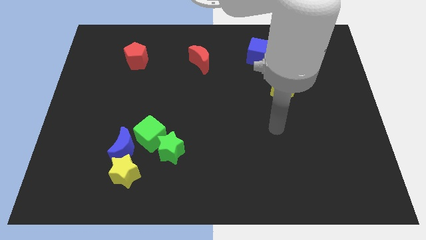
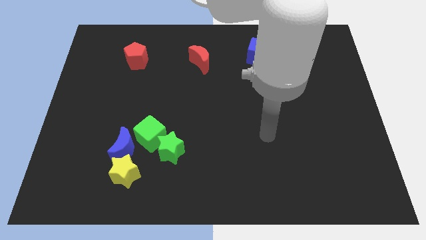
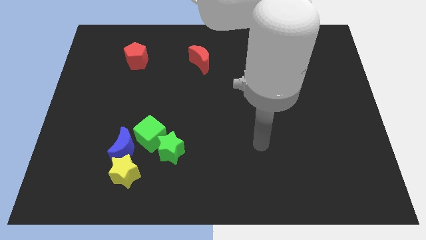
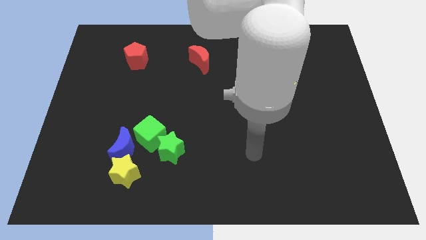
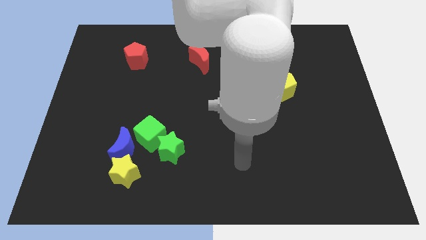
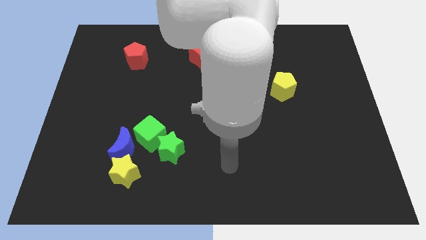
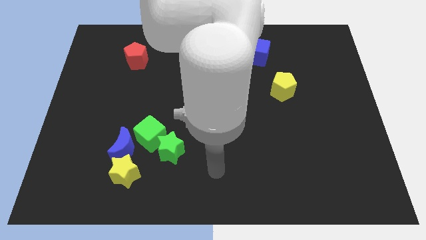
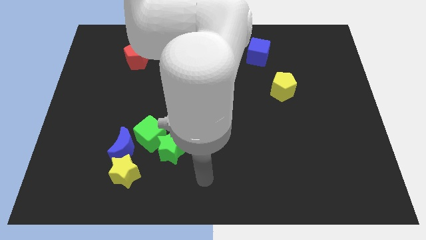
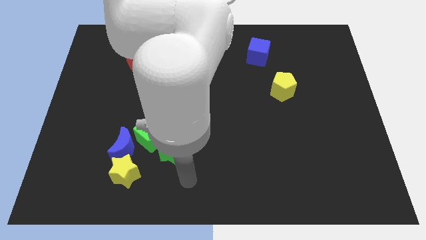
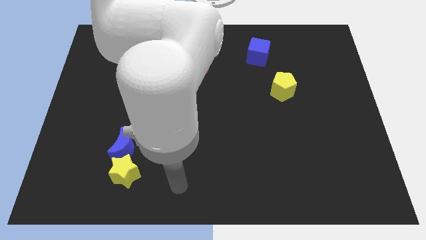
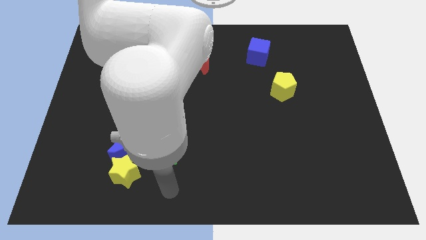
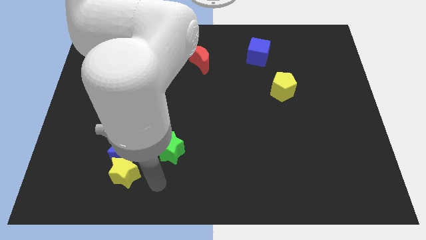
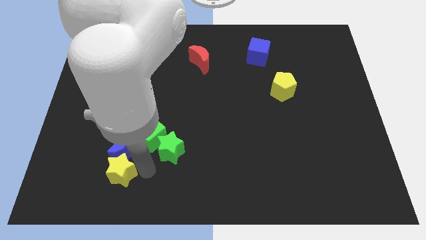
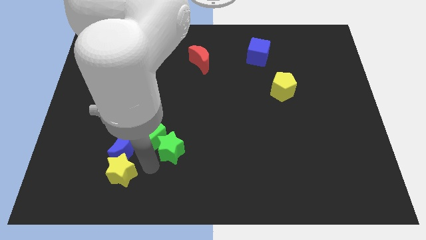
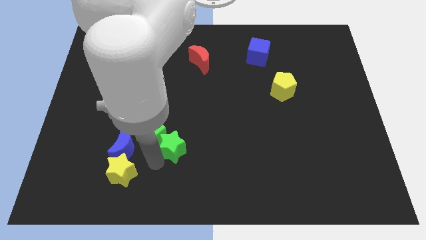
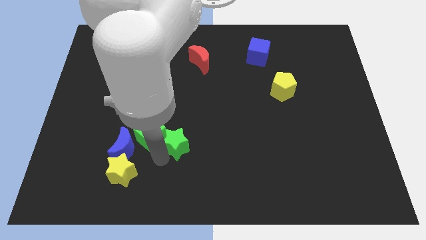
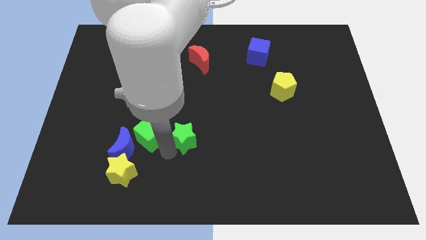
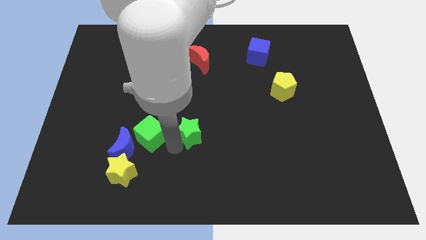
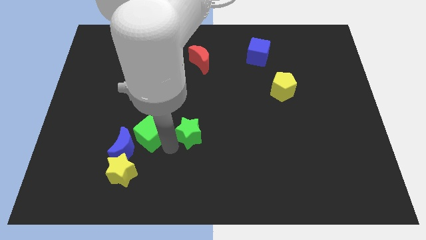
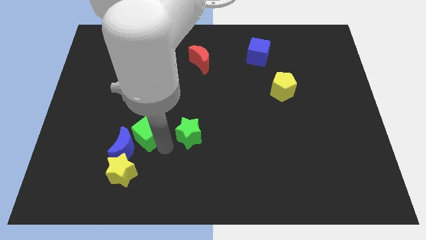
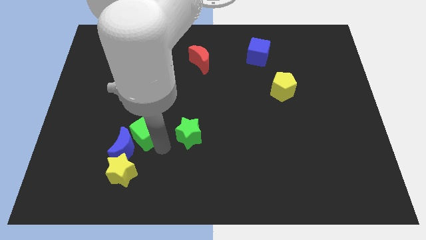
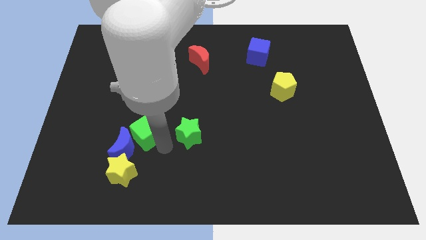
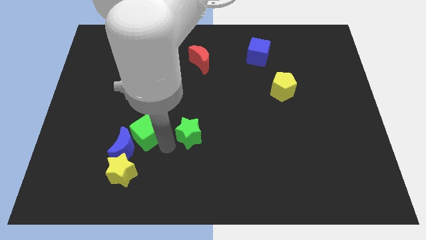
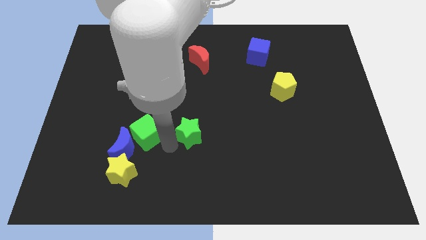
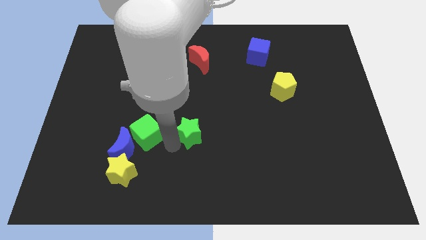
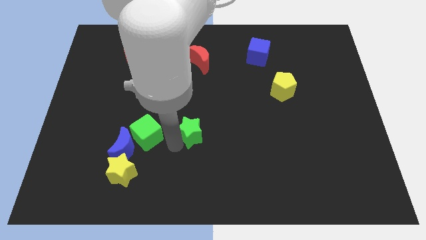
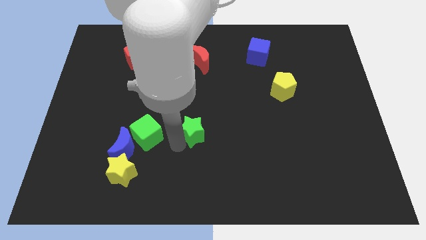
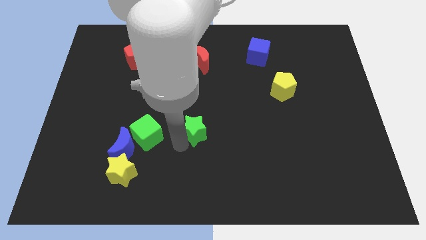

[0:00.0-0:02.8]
move the green star up and right diagonally a bit

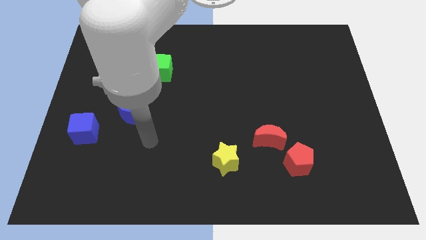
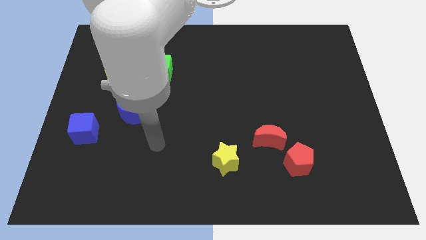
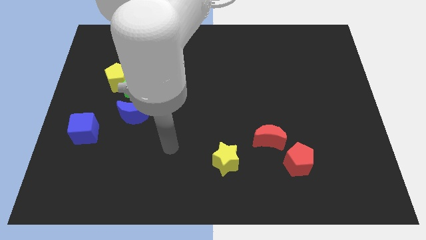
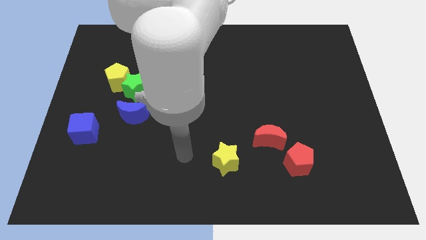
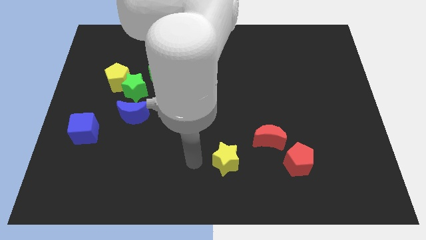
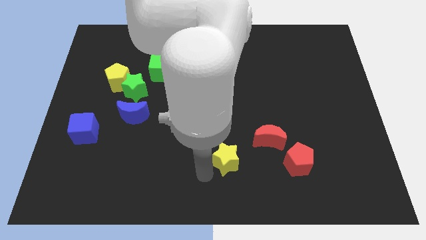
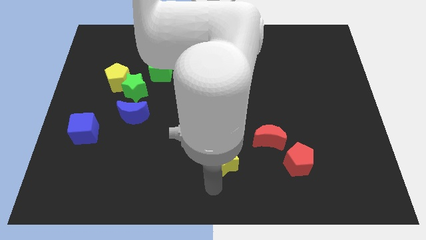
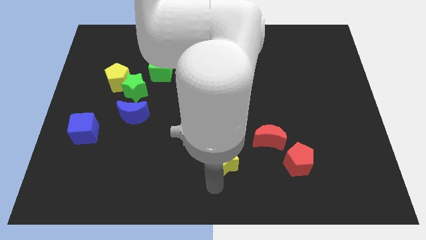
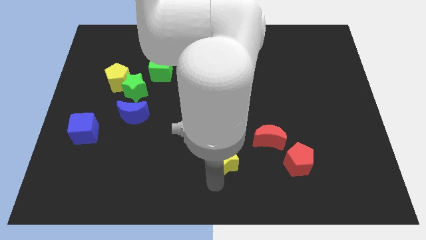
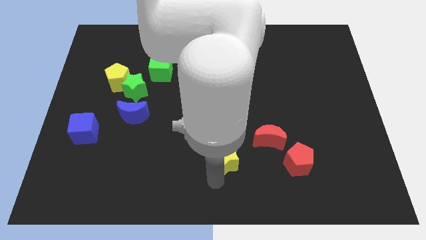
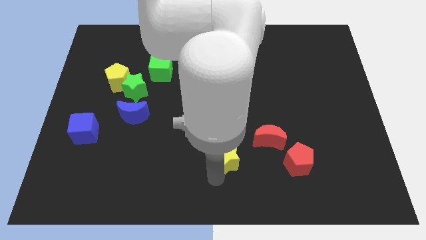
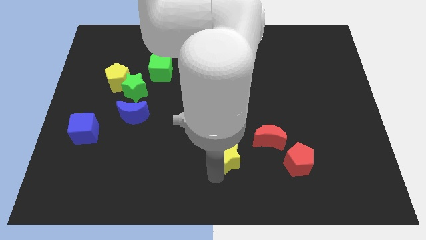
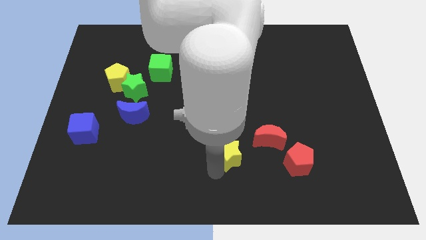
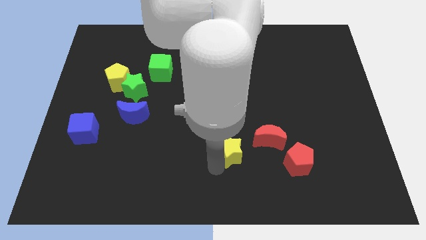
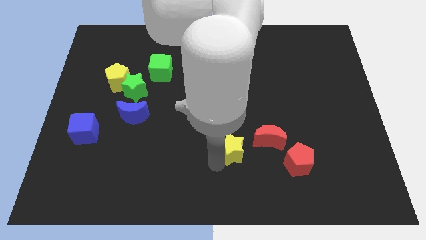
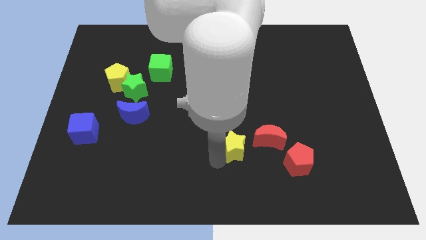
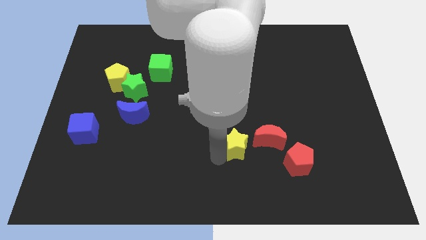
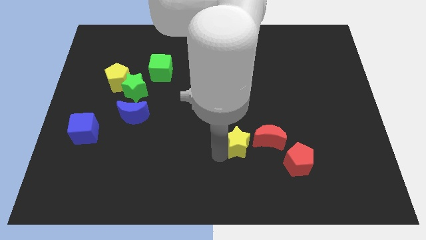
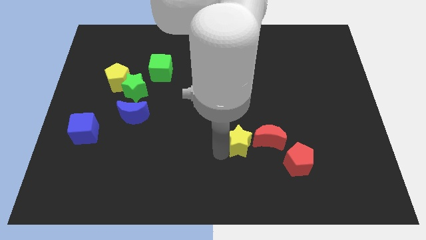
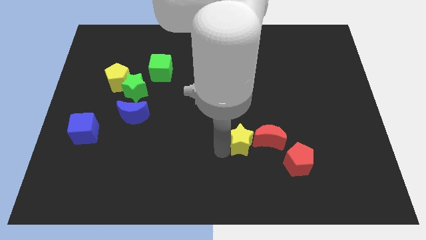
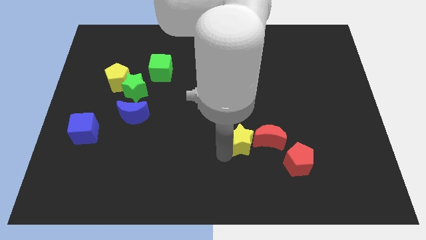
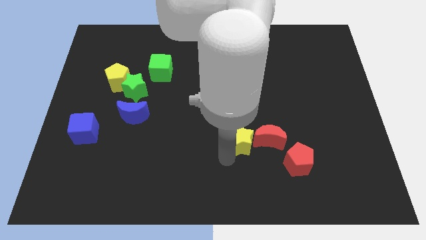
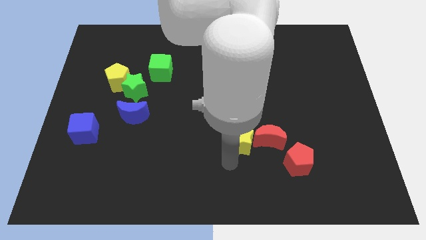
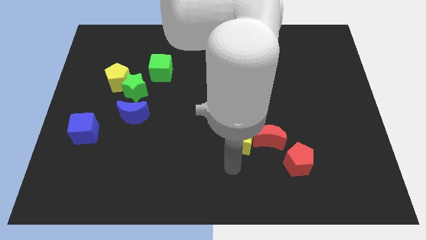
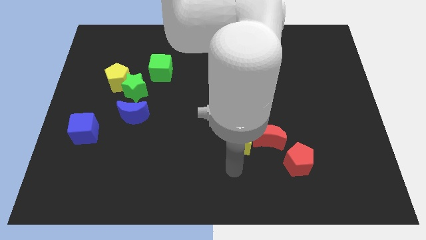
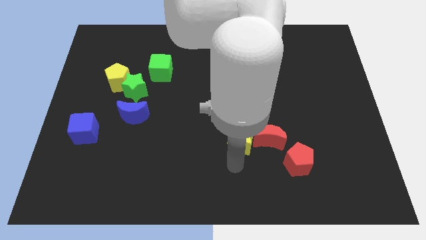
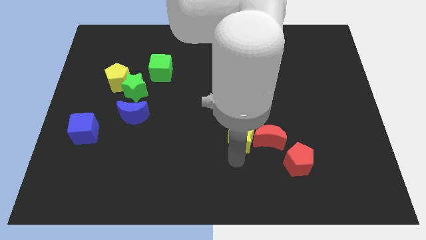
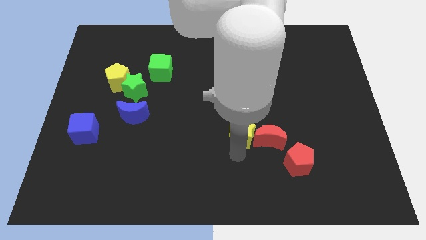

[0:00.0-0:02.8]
slightly push the yellow star upwards and then to the right

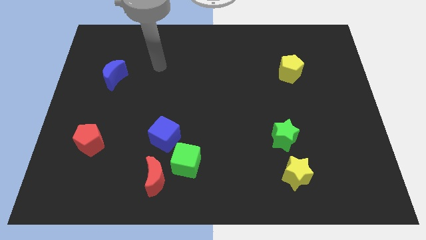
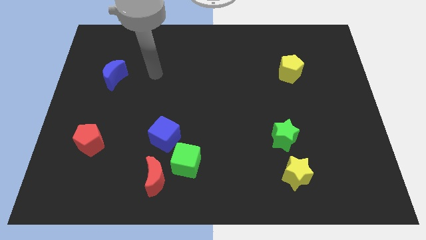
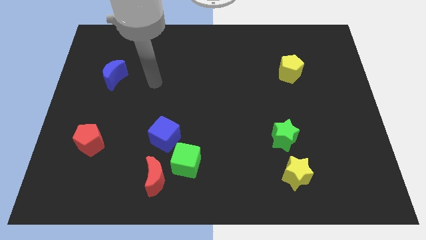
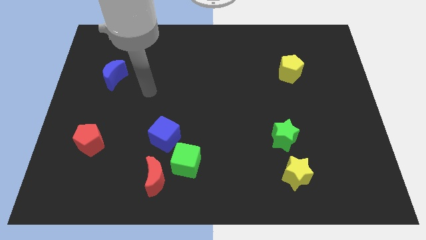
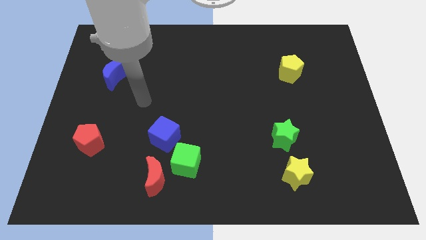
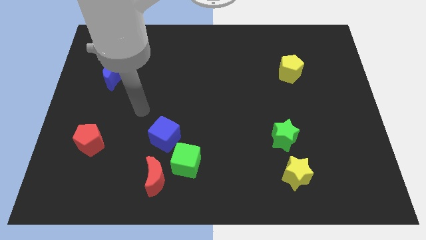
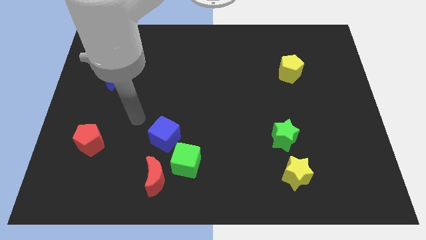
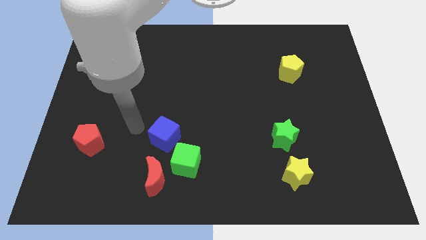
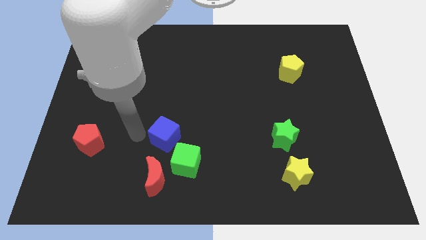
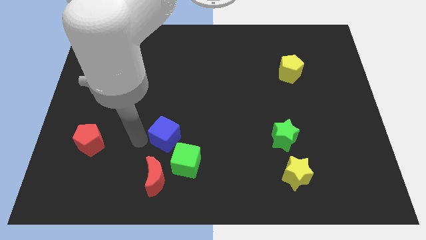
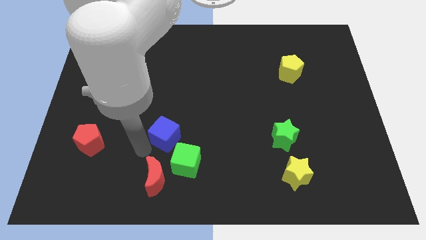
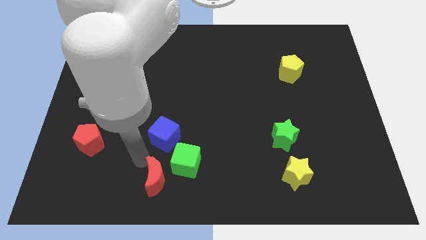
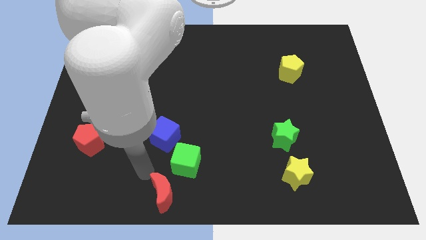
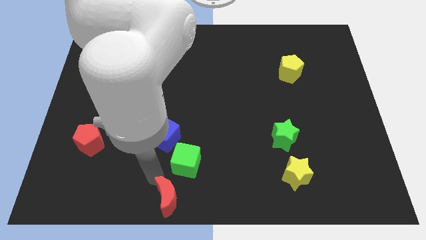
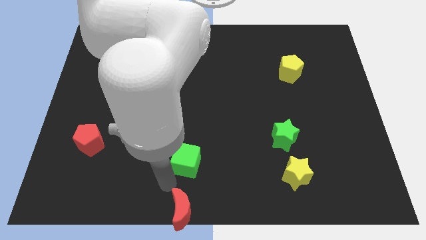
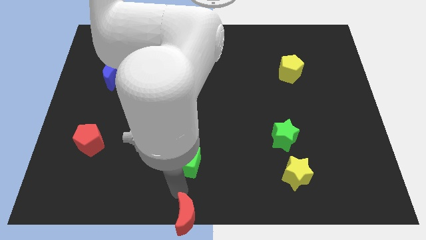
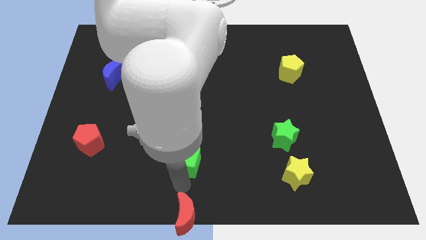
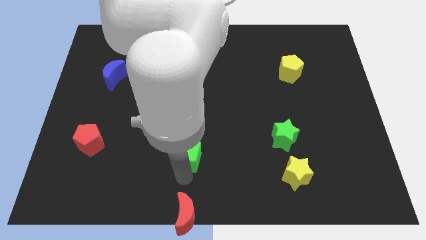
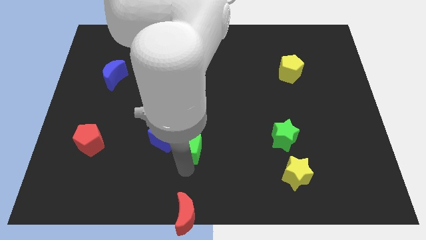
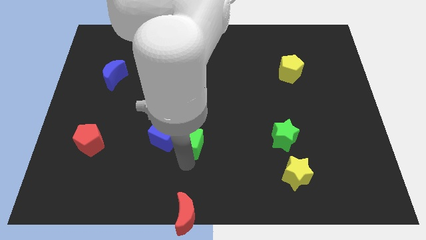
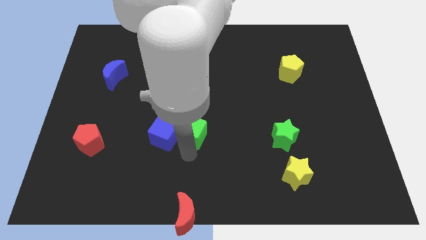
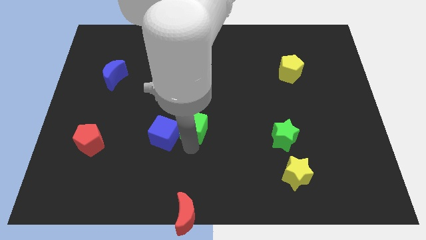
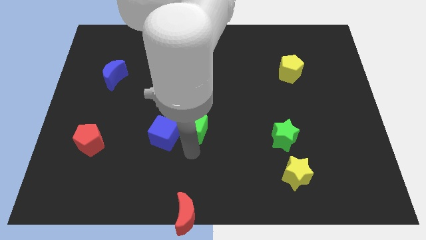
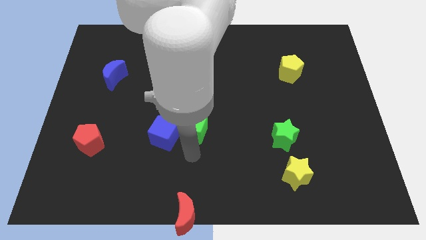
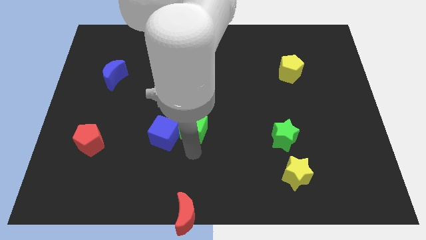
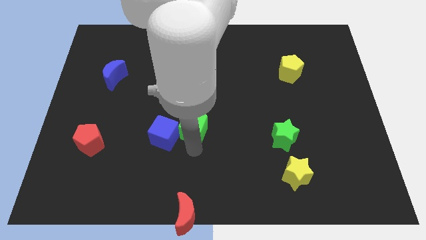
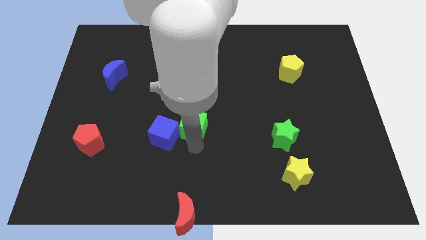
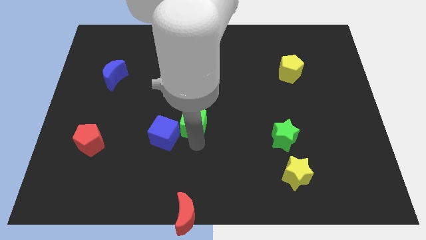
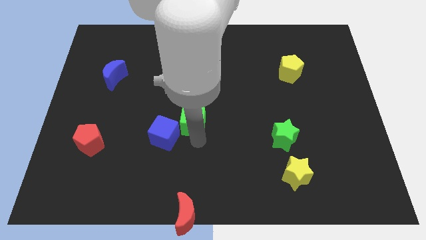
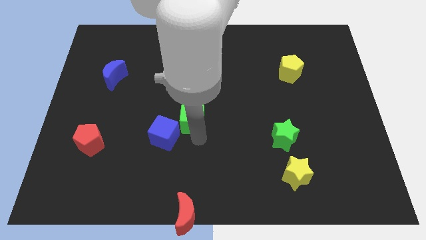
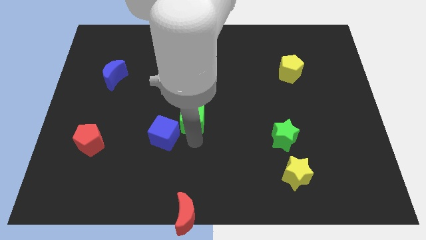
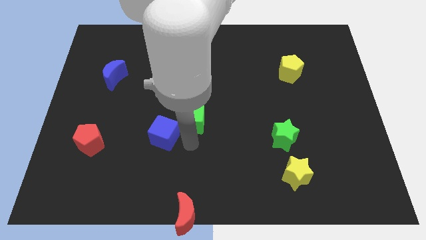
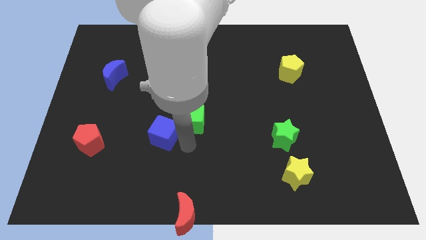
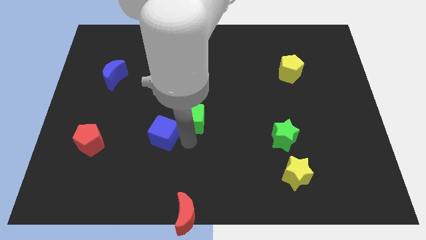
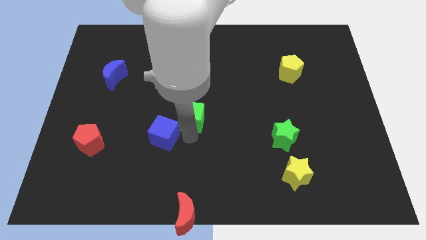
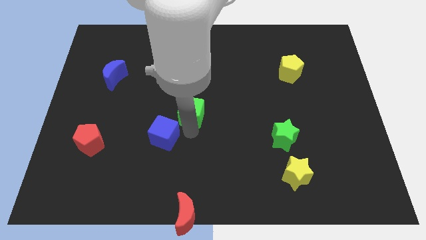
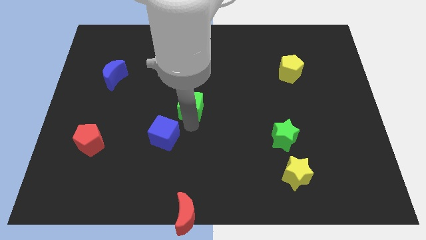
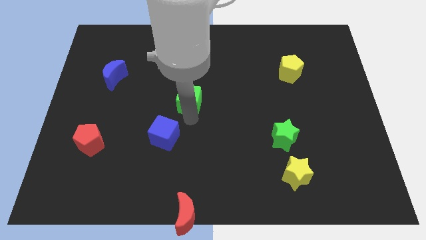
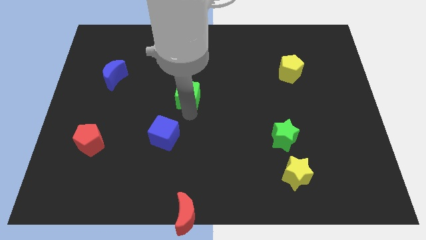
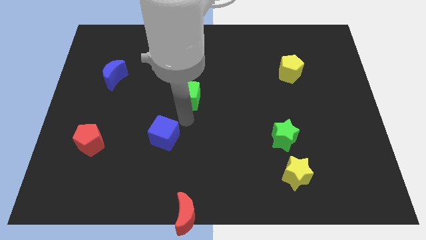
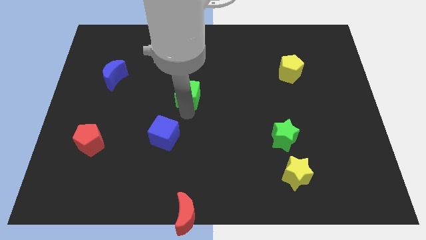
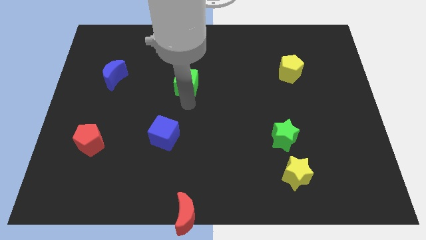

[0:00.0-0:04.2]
move the green cube up
